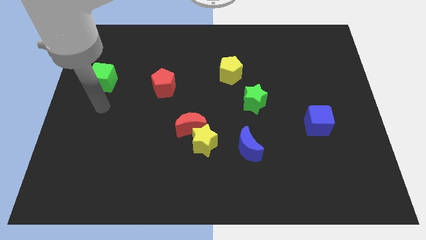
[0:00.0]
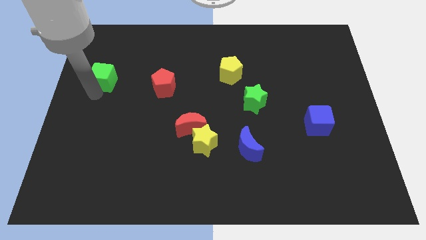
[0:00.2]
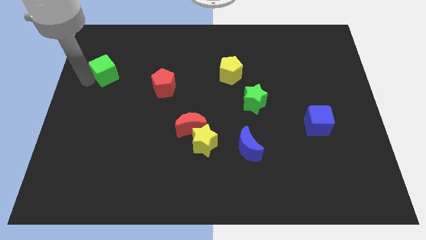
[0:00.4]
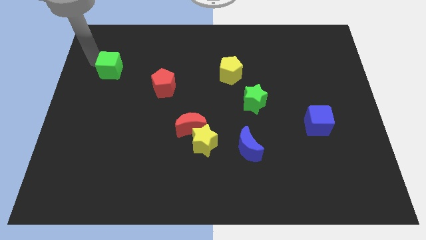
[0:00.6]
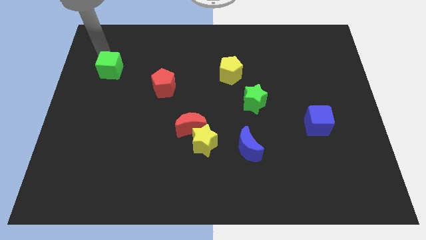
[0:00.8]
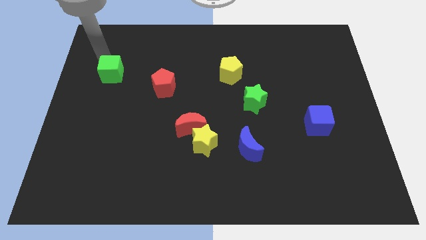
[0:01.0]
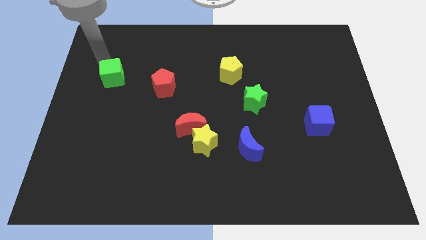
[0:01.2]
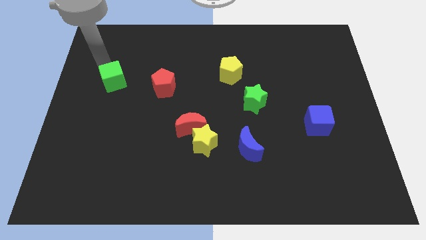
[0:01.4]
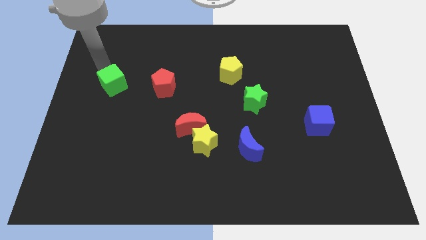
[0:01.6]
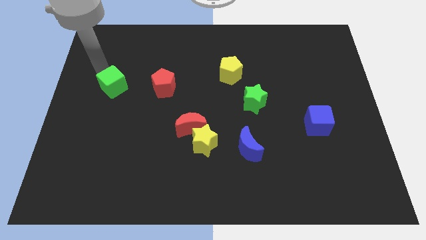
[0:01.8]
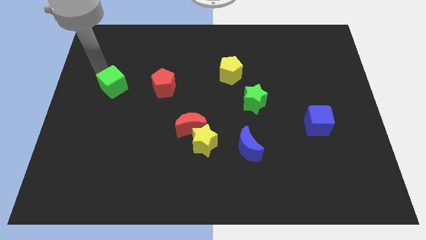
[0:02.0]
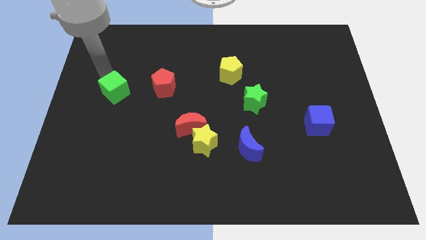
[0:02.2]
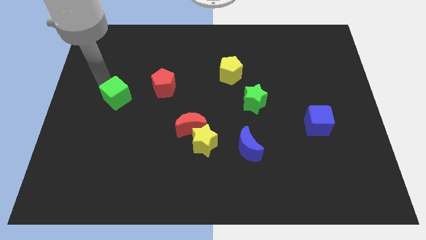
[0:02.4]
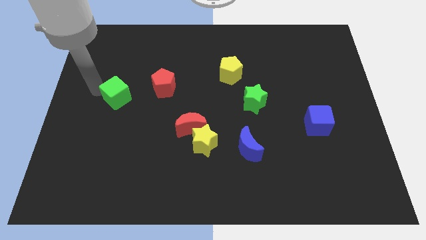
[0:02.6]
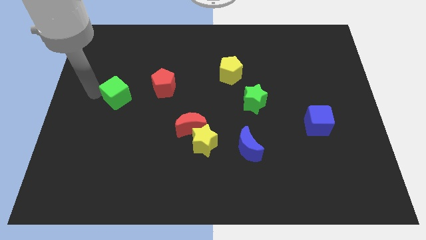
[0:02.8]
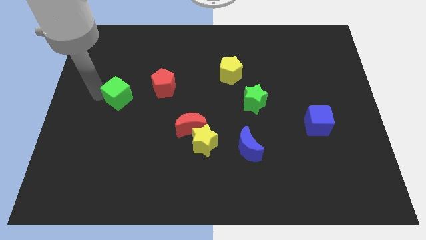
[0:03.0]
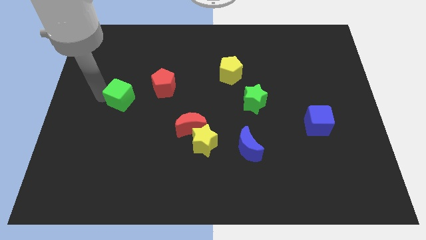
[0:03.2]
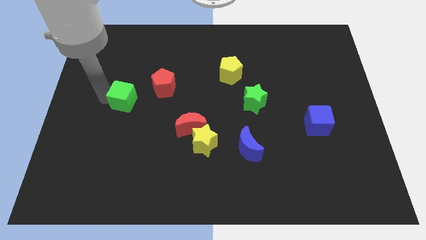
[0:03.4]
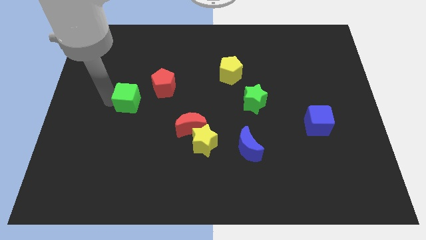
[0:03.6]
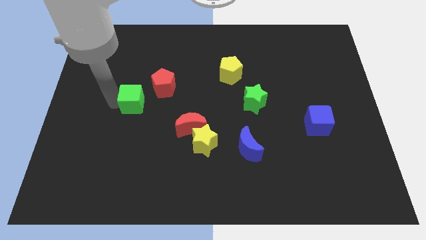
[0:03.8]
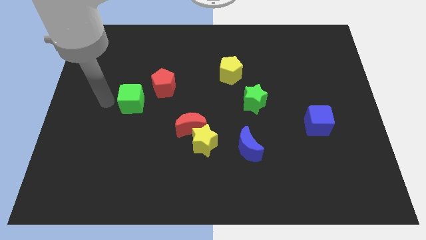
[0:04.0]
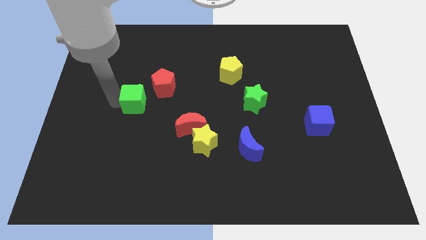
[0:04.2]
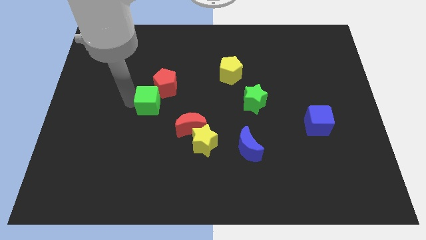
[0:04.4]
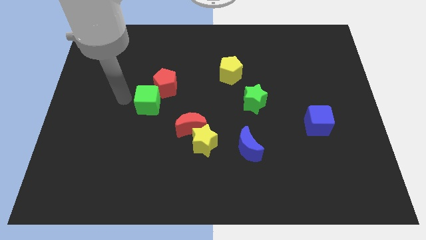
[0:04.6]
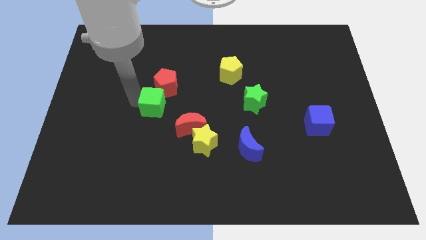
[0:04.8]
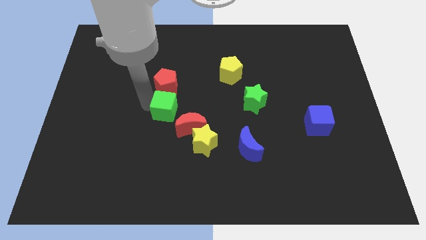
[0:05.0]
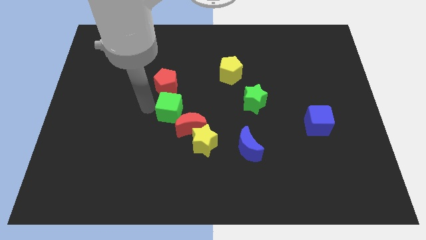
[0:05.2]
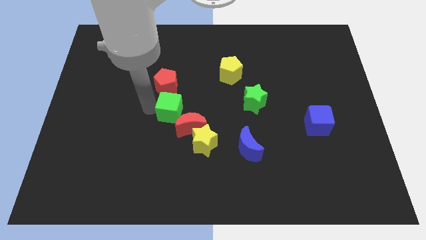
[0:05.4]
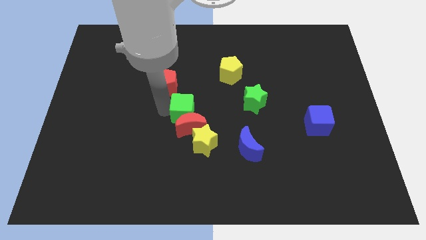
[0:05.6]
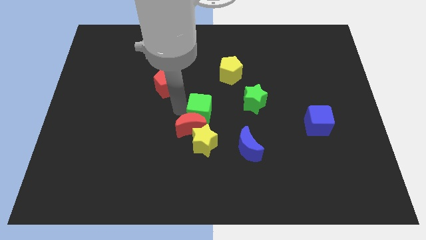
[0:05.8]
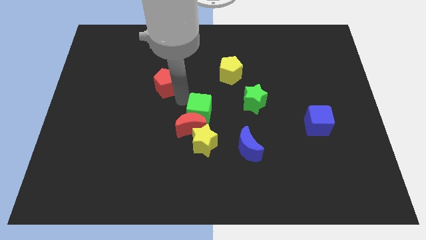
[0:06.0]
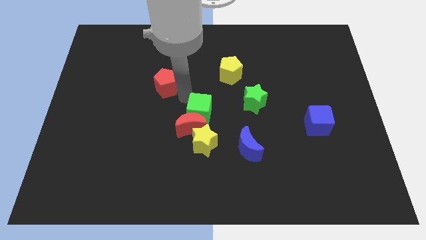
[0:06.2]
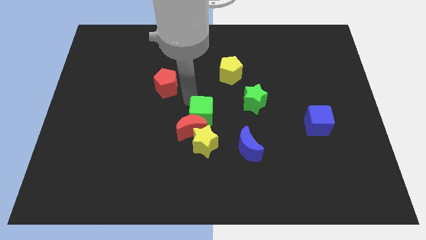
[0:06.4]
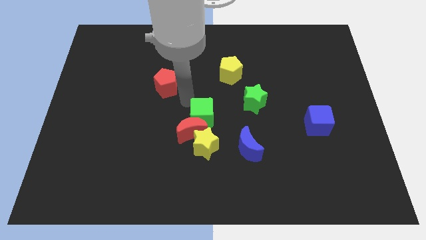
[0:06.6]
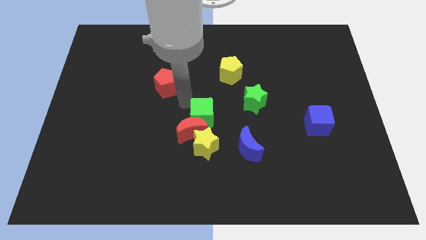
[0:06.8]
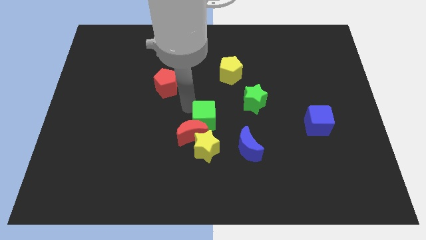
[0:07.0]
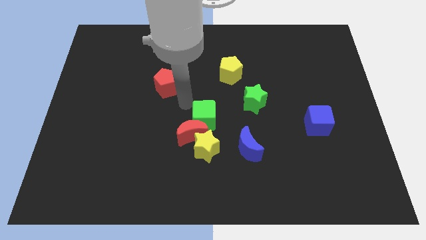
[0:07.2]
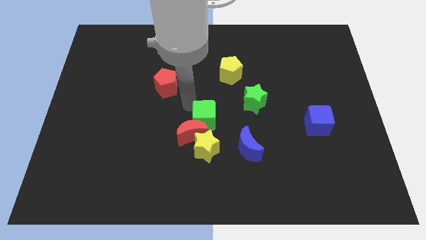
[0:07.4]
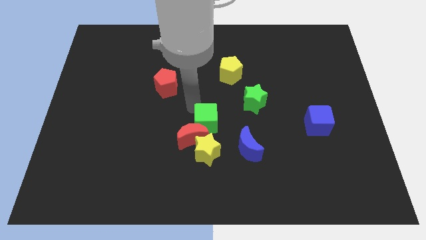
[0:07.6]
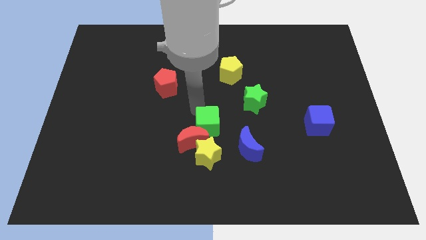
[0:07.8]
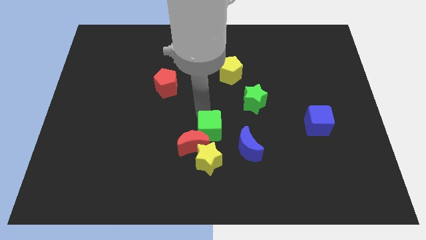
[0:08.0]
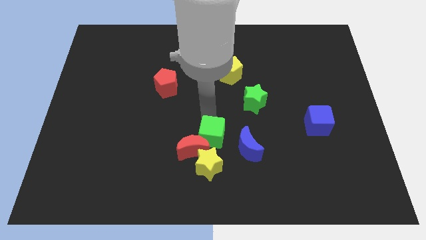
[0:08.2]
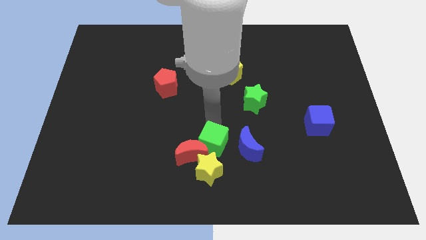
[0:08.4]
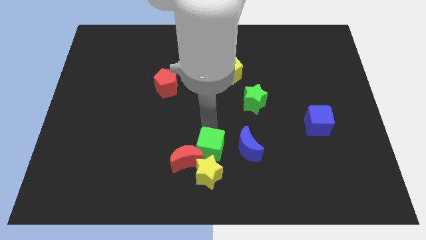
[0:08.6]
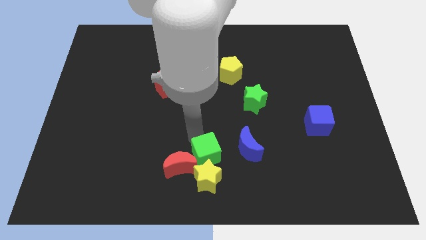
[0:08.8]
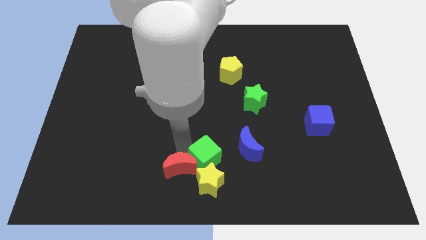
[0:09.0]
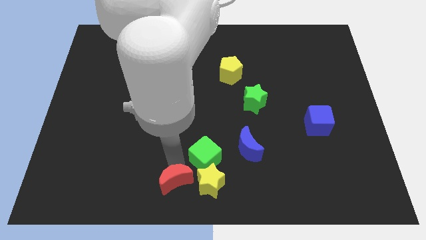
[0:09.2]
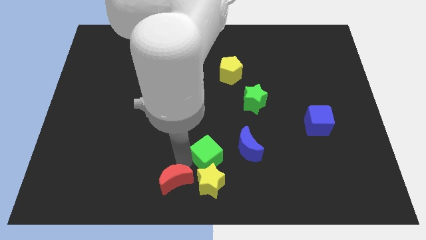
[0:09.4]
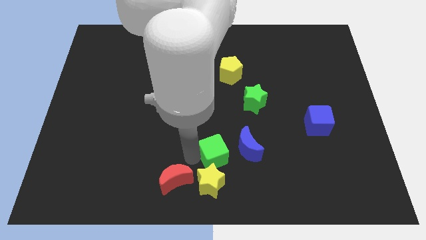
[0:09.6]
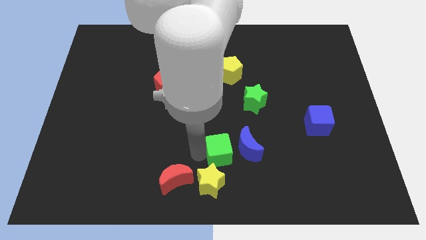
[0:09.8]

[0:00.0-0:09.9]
put the green cube close to the blue moon

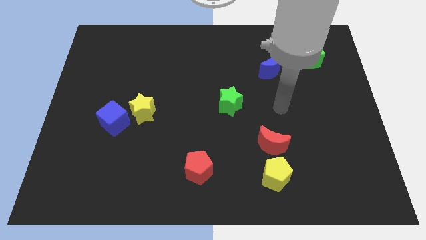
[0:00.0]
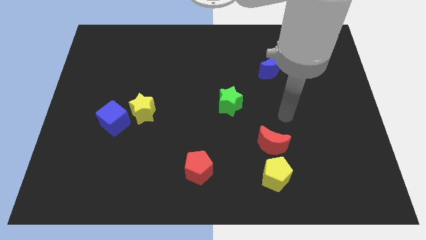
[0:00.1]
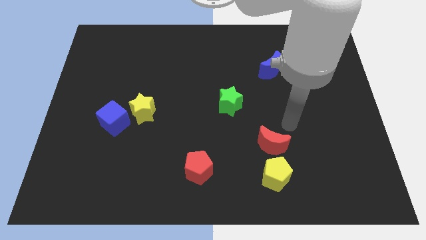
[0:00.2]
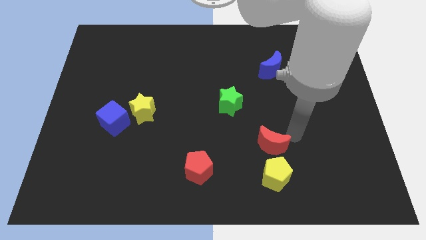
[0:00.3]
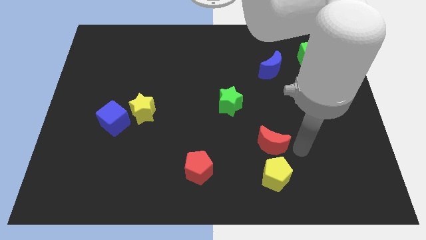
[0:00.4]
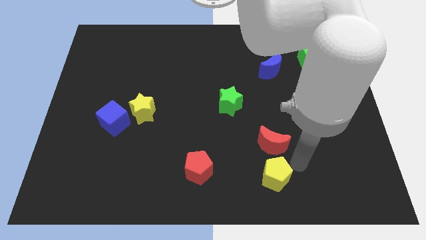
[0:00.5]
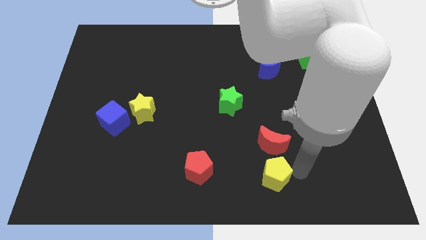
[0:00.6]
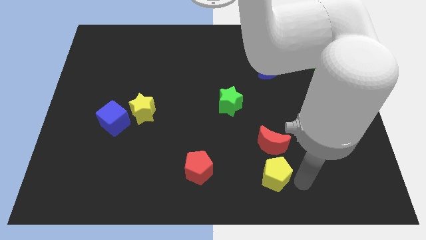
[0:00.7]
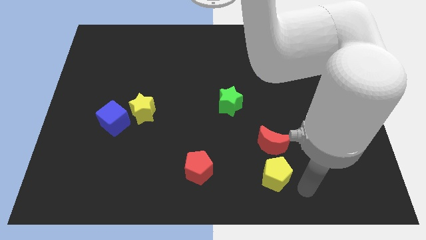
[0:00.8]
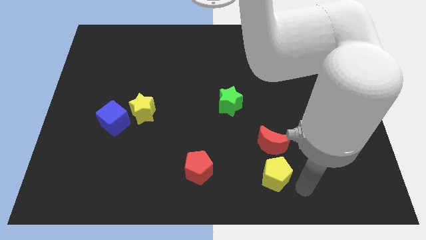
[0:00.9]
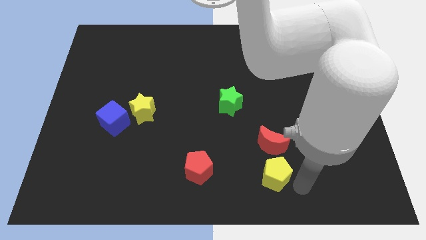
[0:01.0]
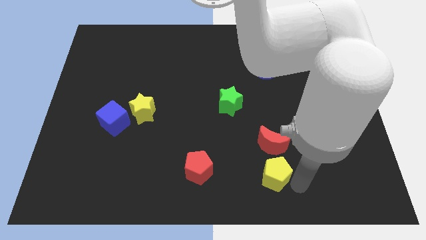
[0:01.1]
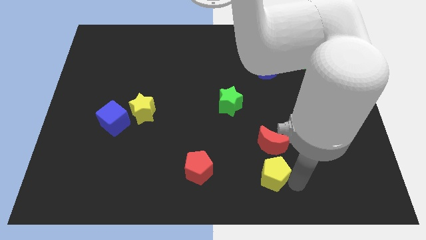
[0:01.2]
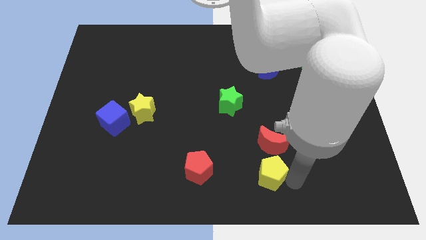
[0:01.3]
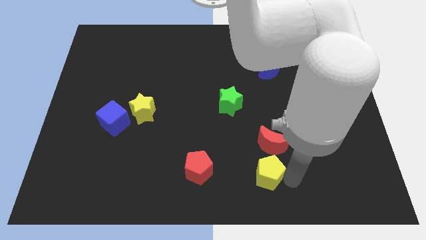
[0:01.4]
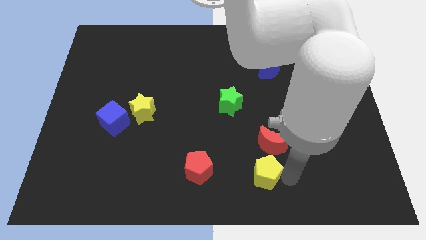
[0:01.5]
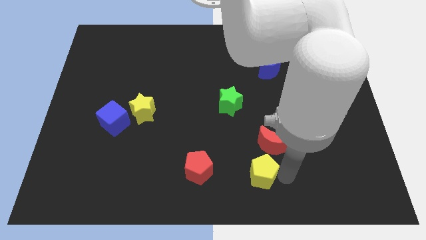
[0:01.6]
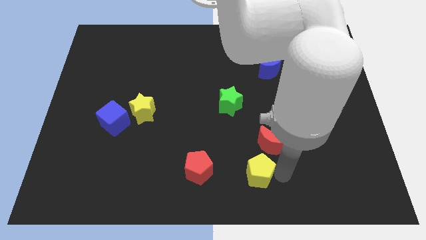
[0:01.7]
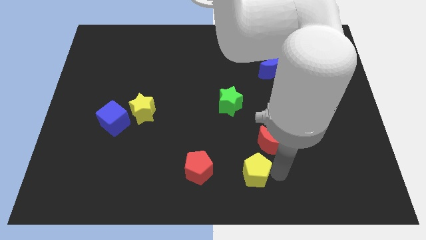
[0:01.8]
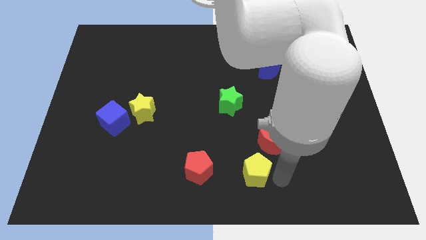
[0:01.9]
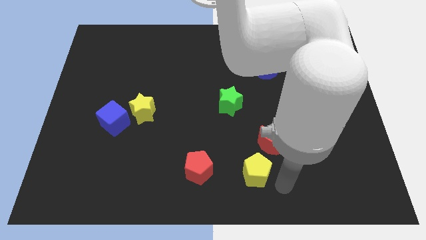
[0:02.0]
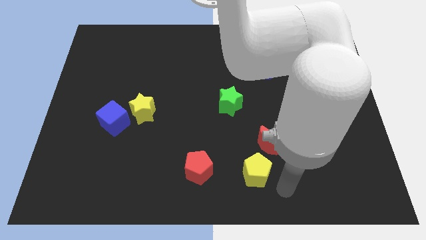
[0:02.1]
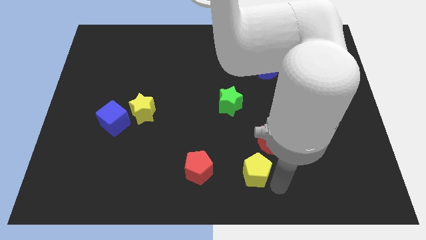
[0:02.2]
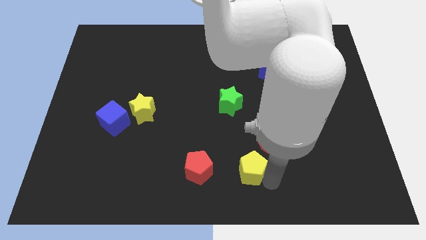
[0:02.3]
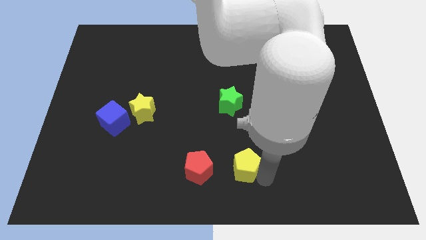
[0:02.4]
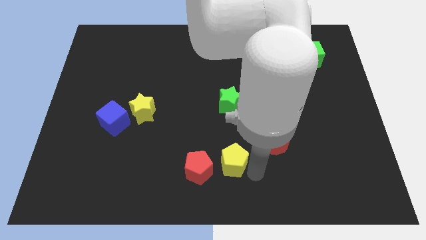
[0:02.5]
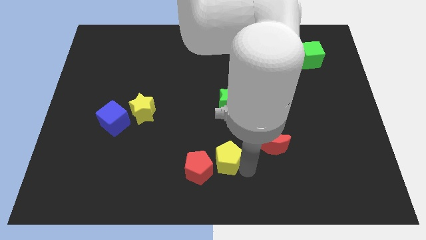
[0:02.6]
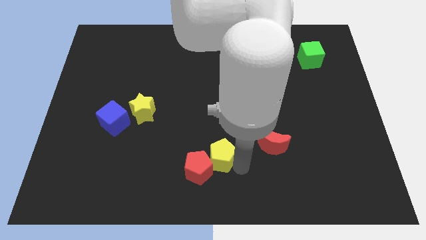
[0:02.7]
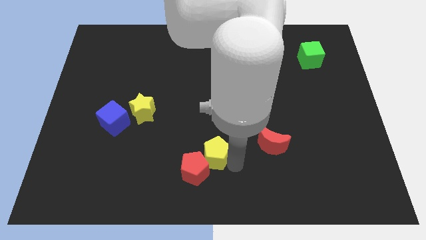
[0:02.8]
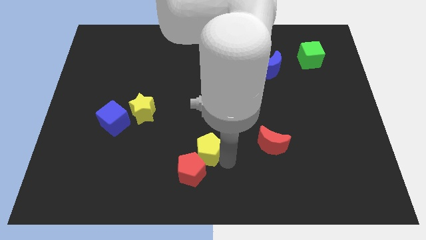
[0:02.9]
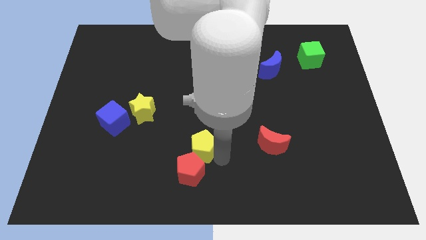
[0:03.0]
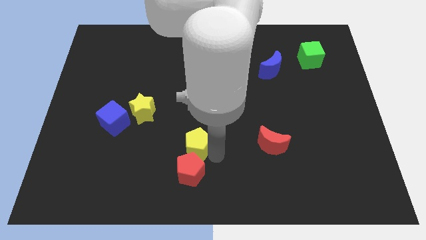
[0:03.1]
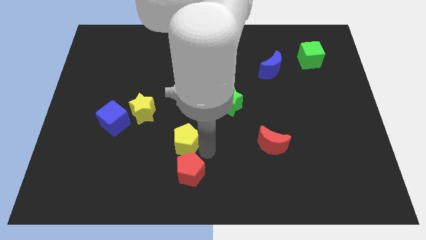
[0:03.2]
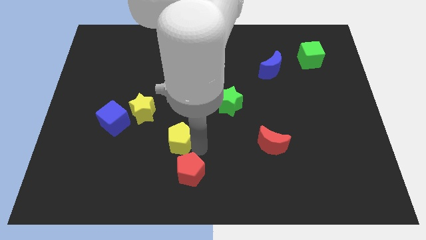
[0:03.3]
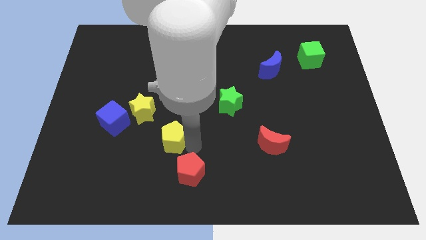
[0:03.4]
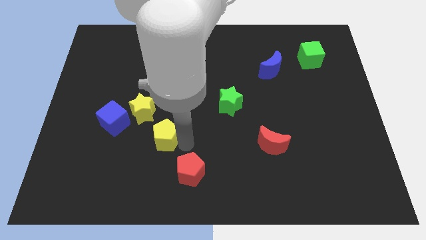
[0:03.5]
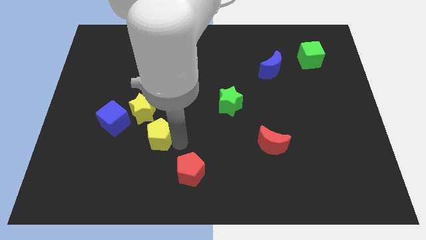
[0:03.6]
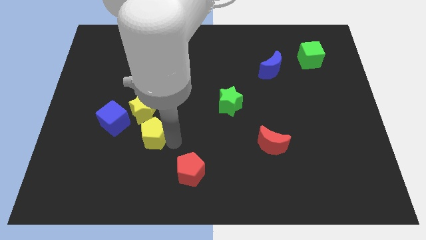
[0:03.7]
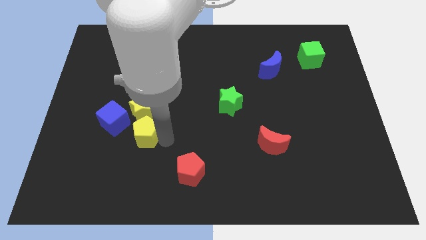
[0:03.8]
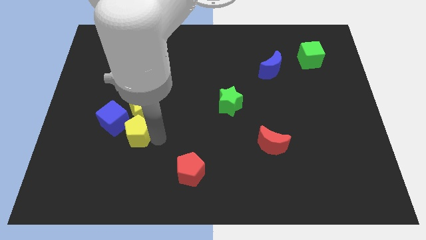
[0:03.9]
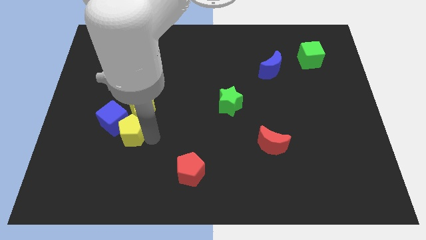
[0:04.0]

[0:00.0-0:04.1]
slide the yellow pentagon next to the blue cube
